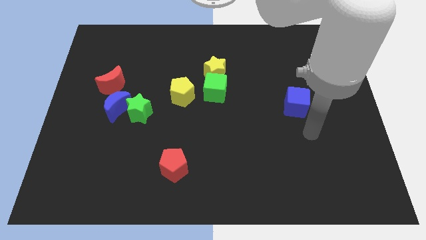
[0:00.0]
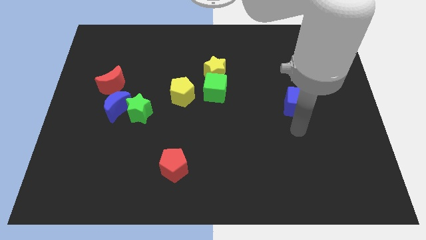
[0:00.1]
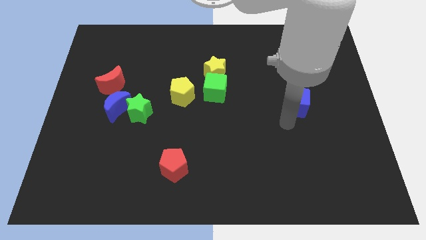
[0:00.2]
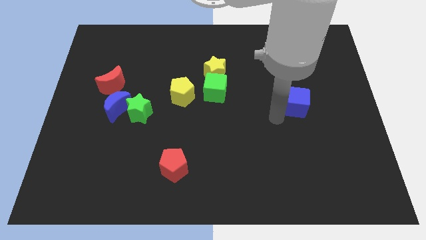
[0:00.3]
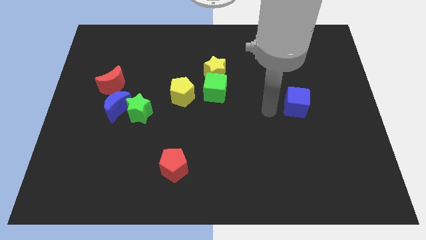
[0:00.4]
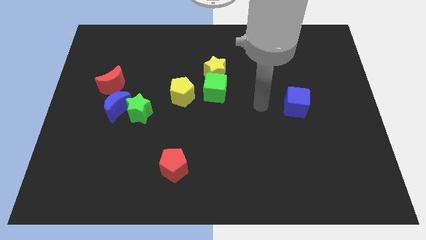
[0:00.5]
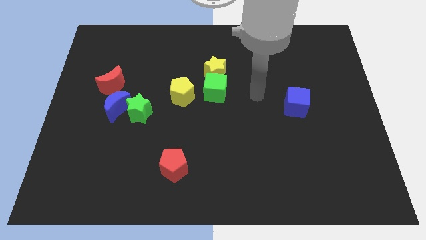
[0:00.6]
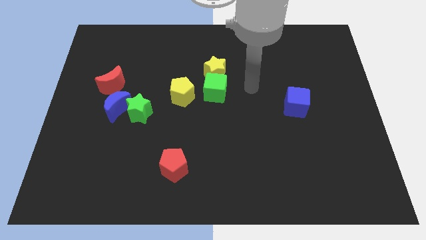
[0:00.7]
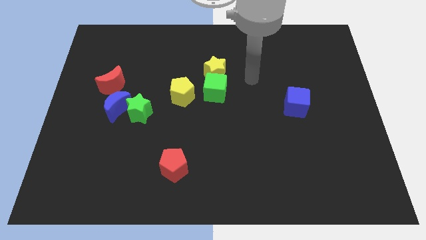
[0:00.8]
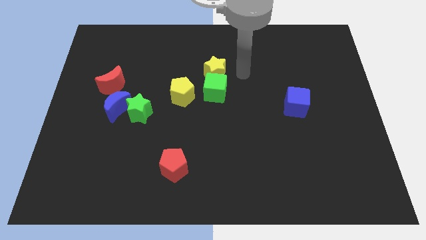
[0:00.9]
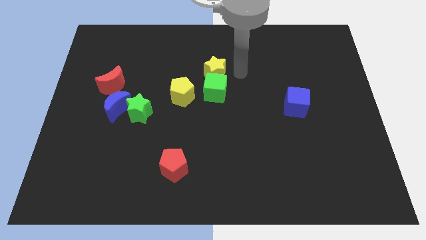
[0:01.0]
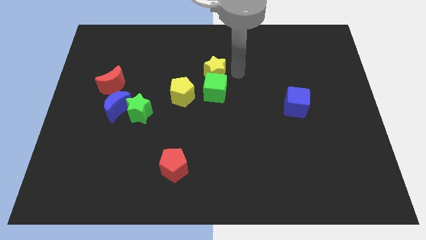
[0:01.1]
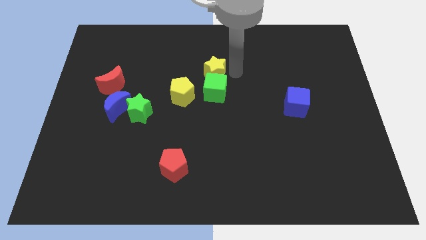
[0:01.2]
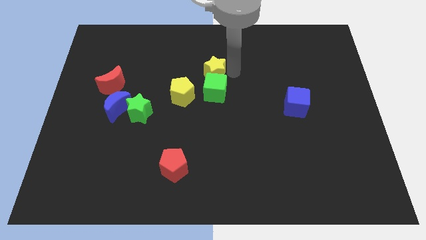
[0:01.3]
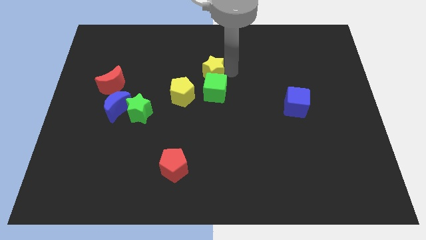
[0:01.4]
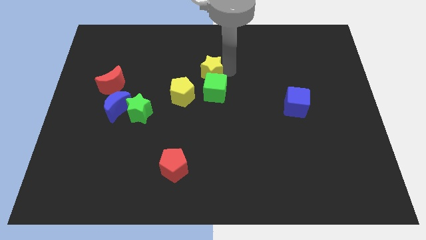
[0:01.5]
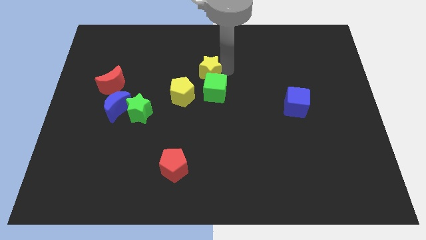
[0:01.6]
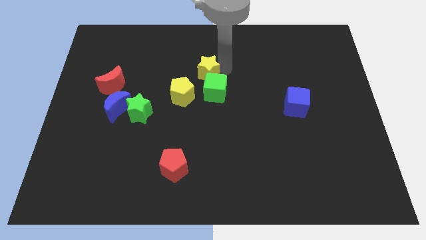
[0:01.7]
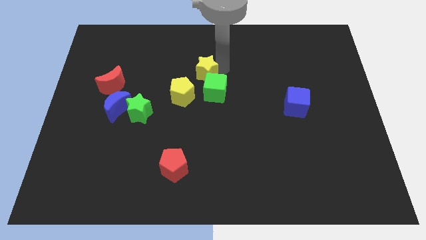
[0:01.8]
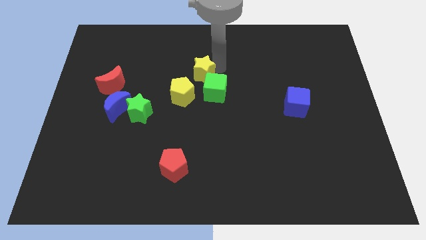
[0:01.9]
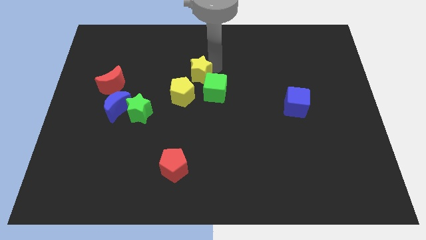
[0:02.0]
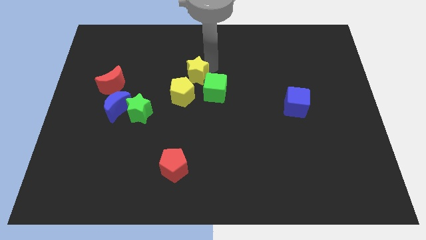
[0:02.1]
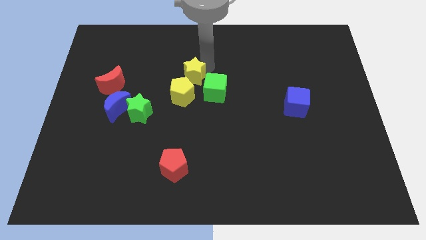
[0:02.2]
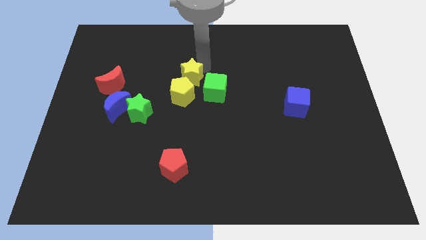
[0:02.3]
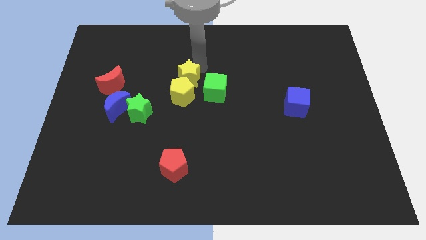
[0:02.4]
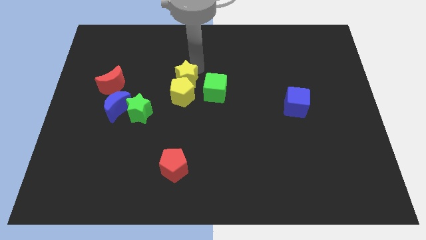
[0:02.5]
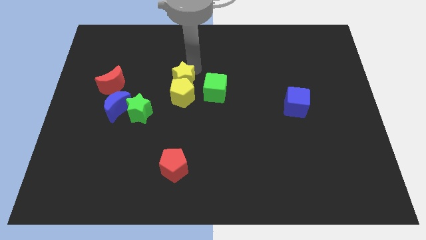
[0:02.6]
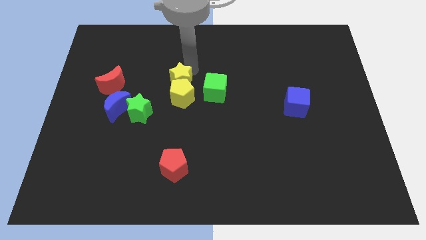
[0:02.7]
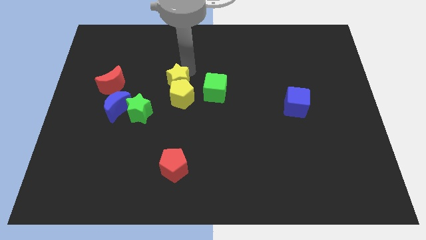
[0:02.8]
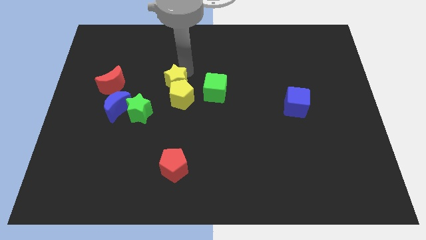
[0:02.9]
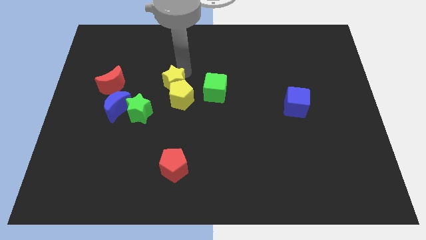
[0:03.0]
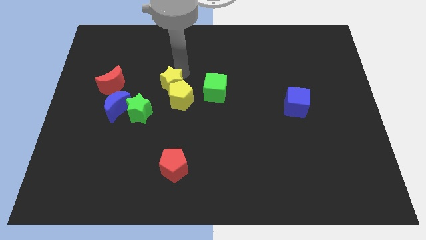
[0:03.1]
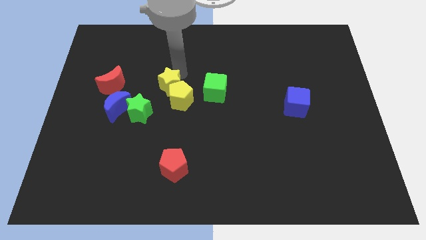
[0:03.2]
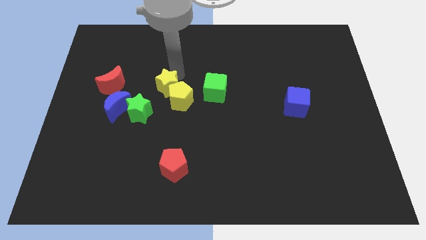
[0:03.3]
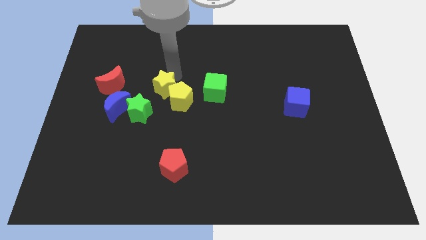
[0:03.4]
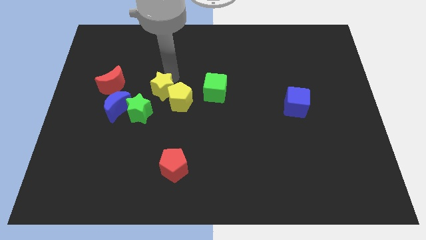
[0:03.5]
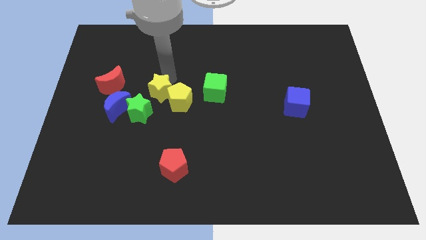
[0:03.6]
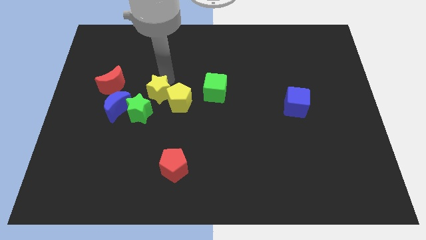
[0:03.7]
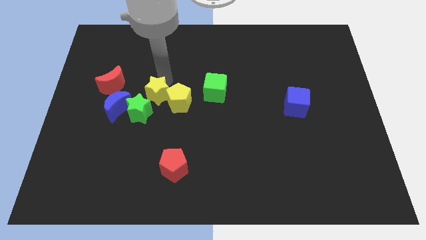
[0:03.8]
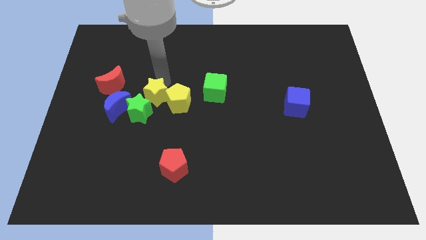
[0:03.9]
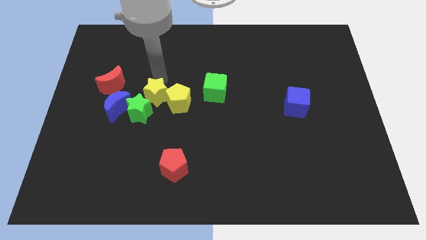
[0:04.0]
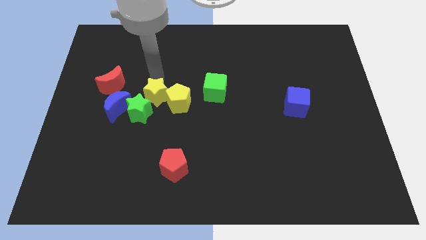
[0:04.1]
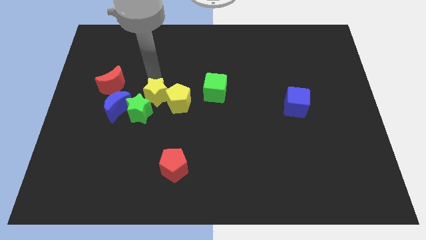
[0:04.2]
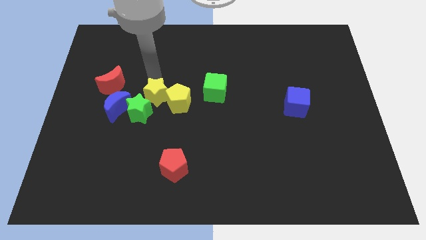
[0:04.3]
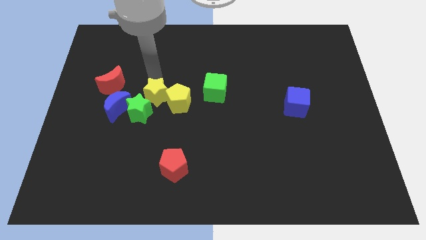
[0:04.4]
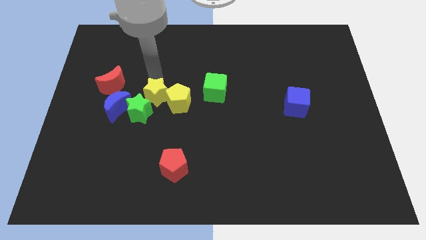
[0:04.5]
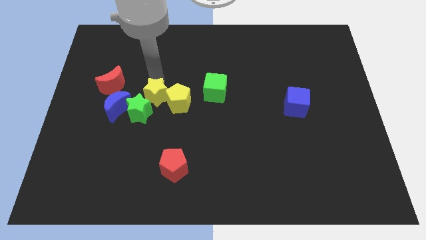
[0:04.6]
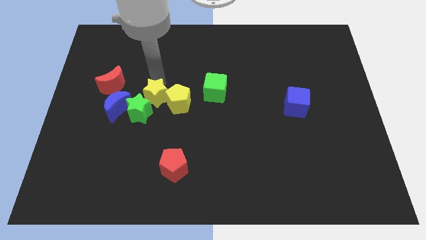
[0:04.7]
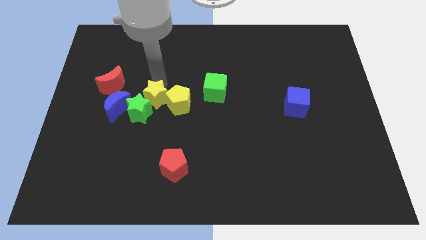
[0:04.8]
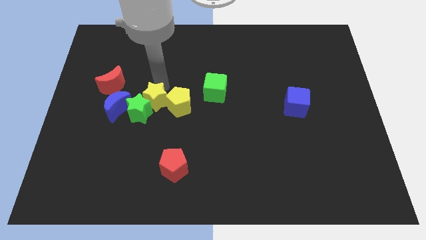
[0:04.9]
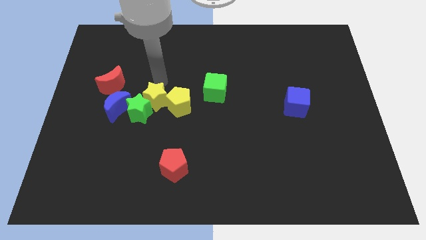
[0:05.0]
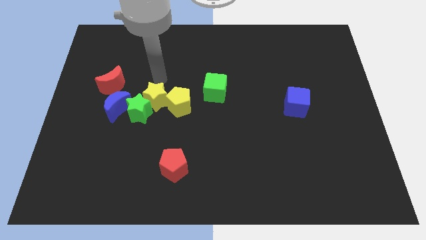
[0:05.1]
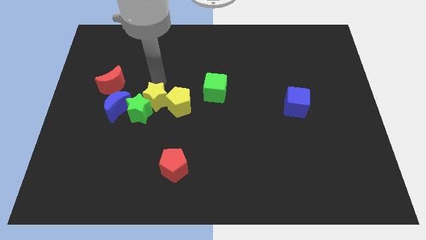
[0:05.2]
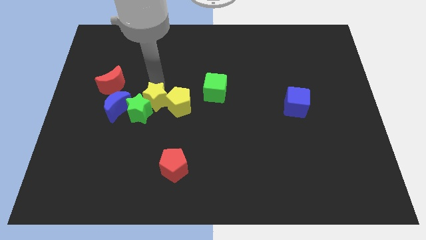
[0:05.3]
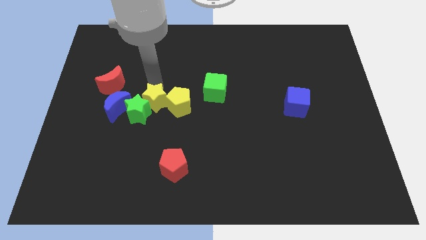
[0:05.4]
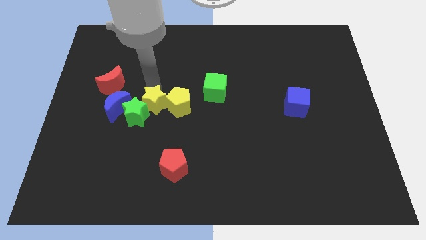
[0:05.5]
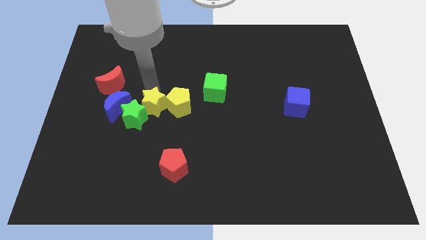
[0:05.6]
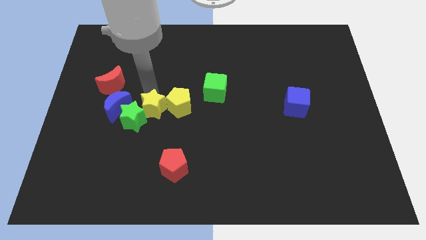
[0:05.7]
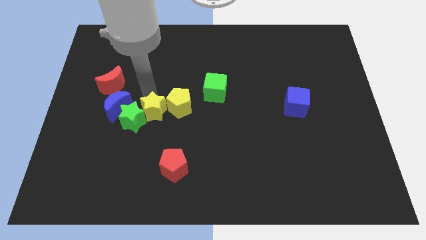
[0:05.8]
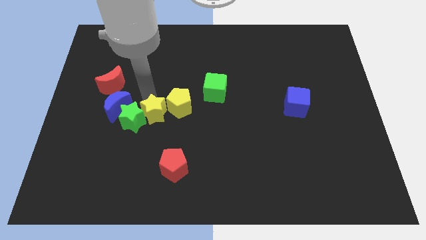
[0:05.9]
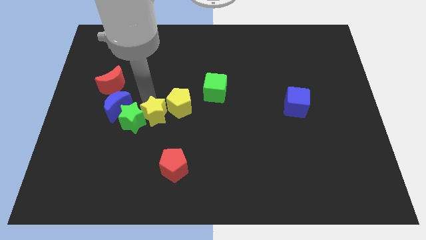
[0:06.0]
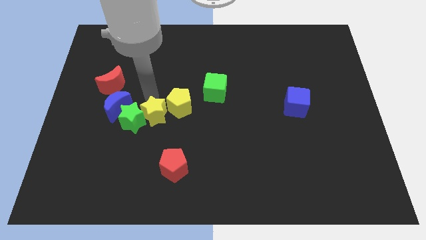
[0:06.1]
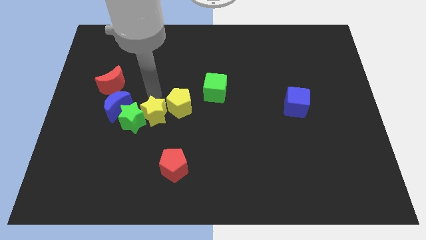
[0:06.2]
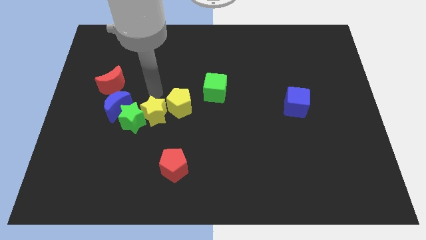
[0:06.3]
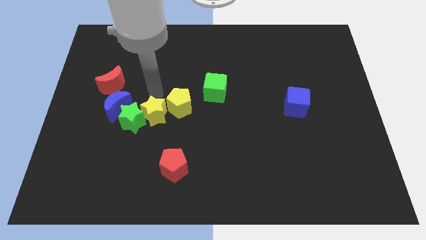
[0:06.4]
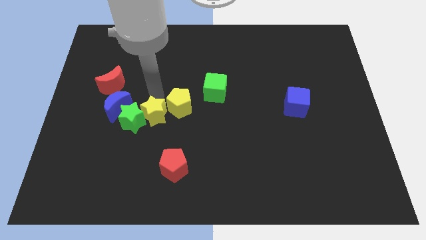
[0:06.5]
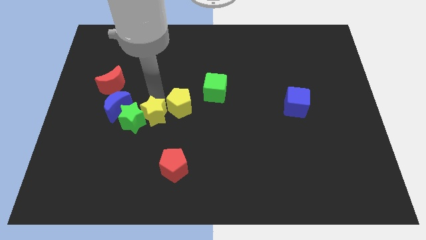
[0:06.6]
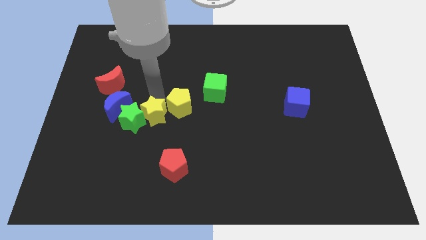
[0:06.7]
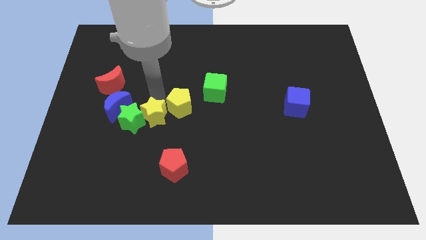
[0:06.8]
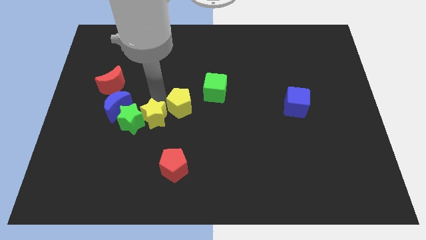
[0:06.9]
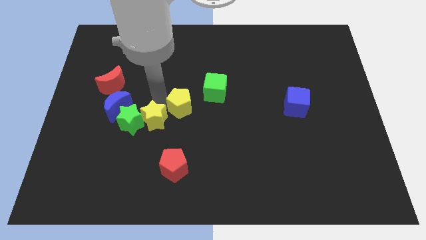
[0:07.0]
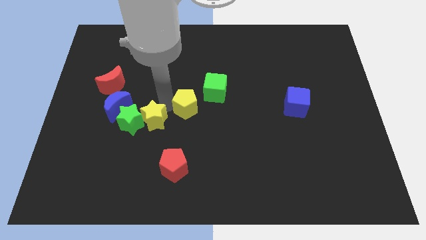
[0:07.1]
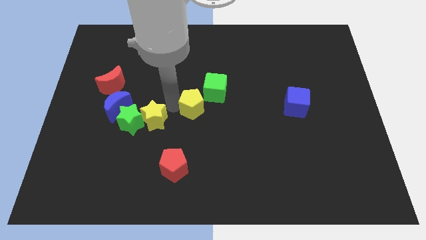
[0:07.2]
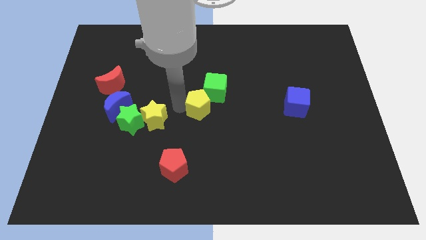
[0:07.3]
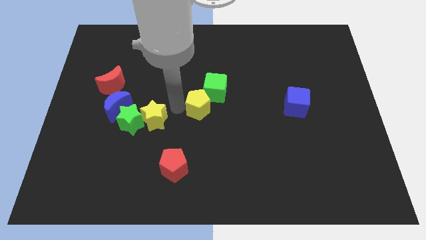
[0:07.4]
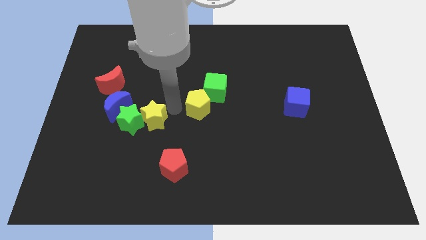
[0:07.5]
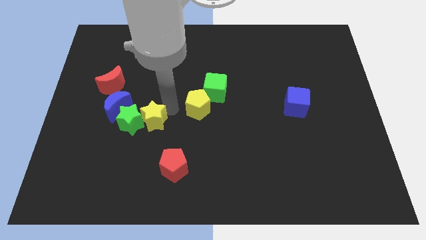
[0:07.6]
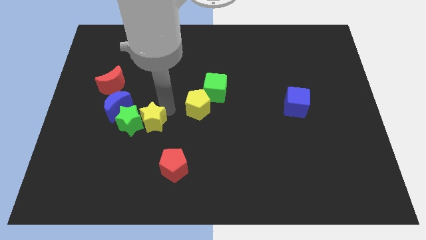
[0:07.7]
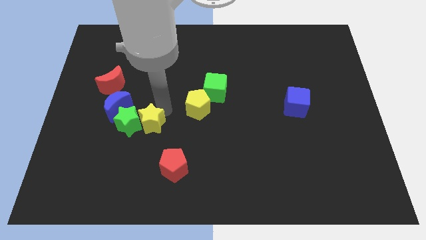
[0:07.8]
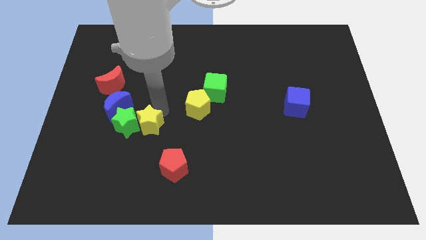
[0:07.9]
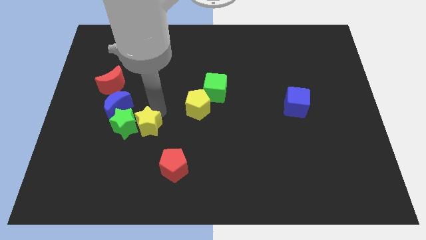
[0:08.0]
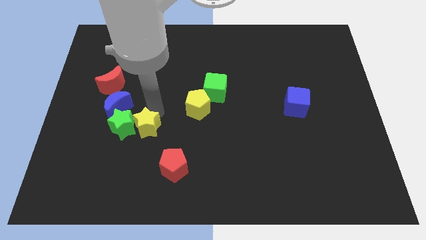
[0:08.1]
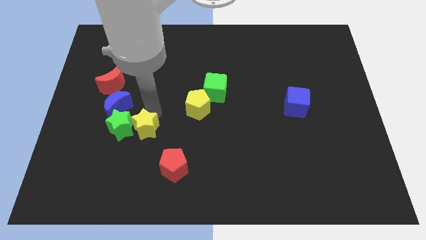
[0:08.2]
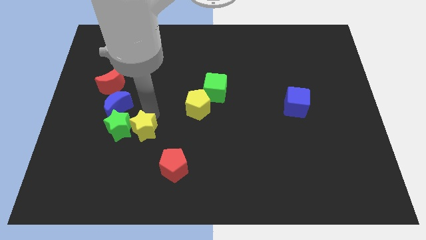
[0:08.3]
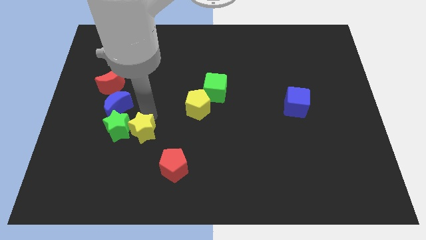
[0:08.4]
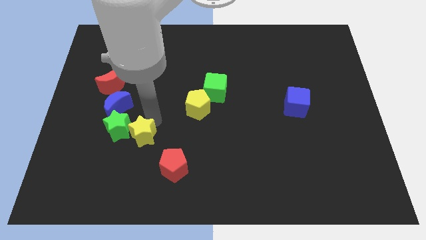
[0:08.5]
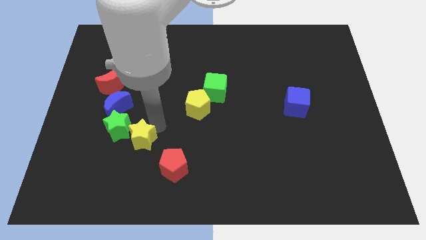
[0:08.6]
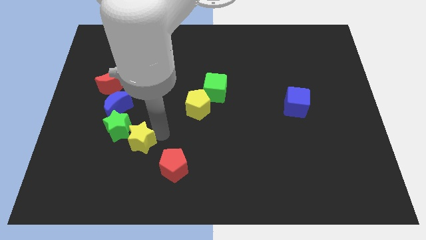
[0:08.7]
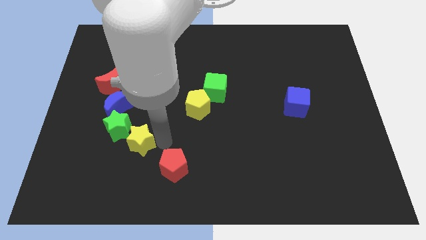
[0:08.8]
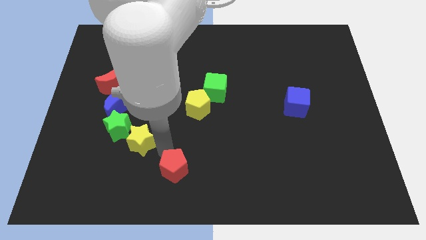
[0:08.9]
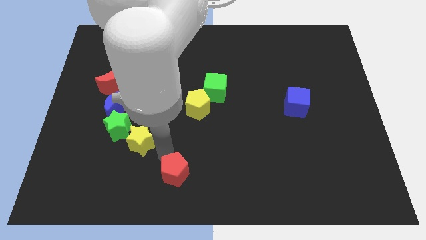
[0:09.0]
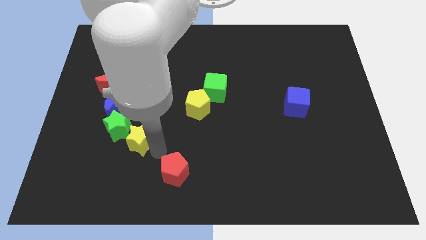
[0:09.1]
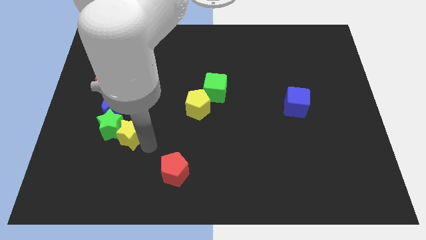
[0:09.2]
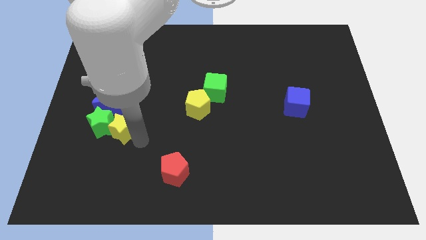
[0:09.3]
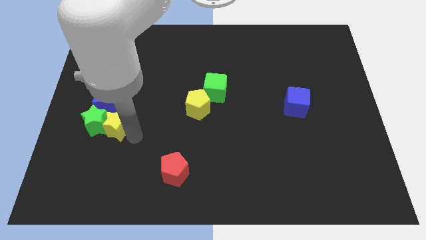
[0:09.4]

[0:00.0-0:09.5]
push the yellow star to the bottom side of the red moon
